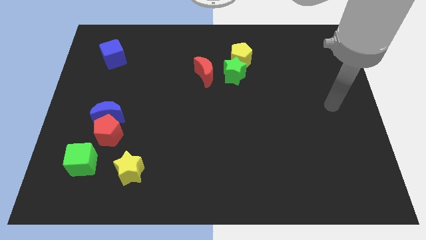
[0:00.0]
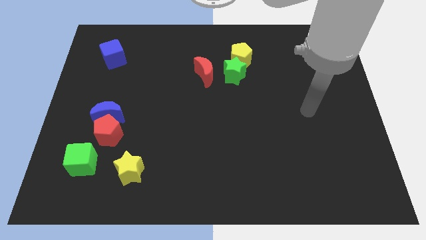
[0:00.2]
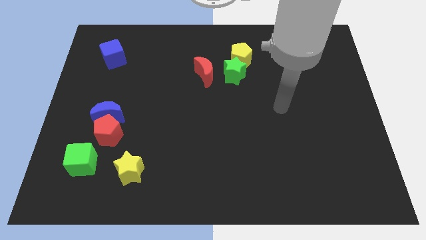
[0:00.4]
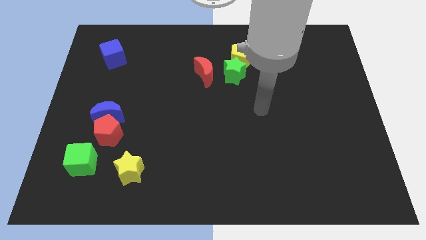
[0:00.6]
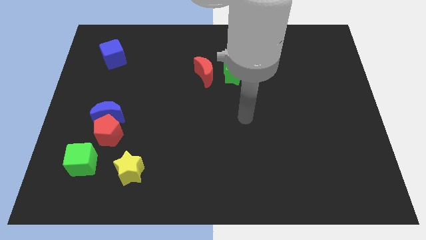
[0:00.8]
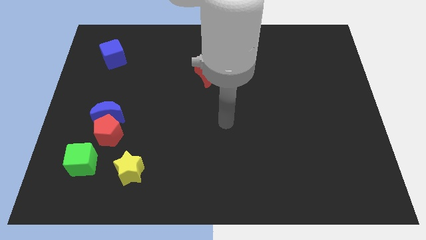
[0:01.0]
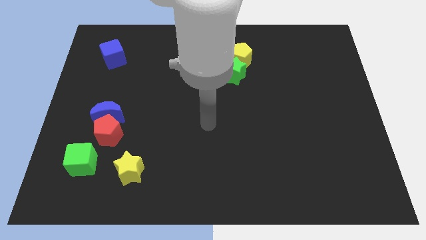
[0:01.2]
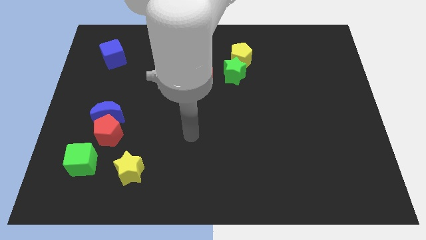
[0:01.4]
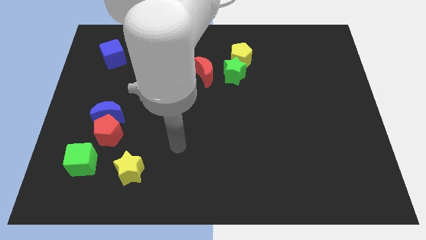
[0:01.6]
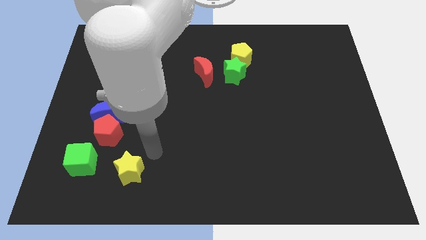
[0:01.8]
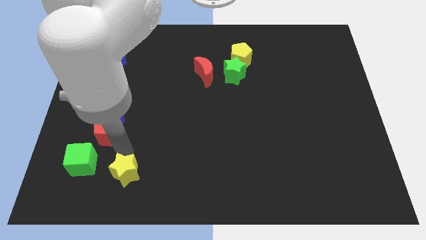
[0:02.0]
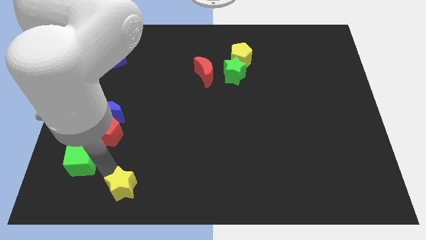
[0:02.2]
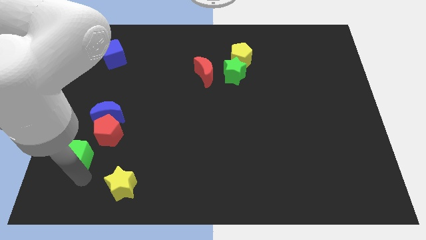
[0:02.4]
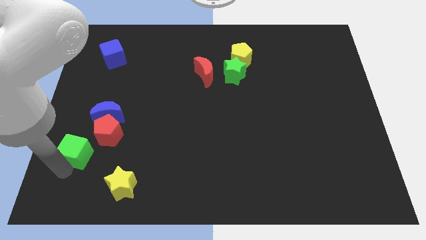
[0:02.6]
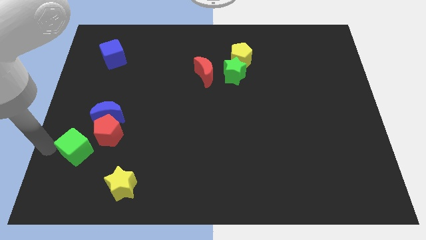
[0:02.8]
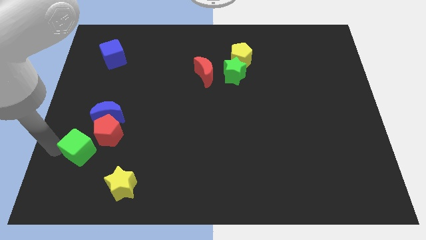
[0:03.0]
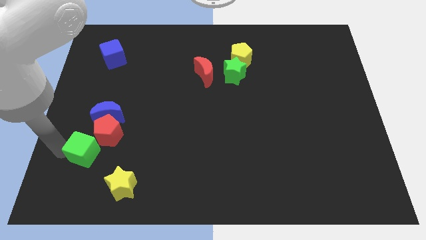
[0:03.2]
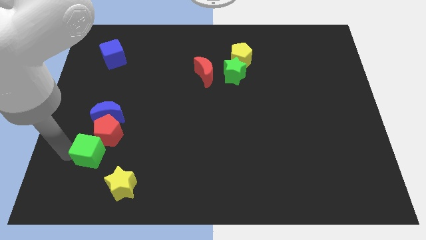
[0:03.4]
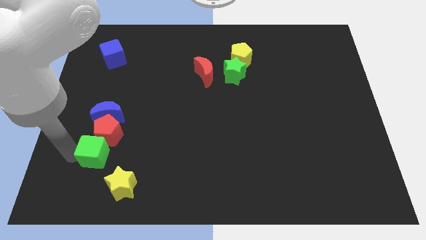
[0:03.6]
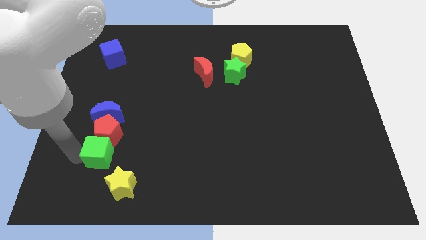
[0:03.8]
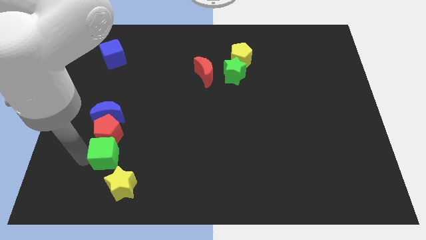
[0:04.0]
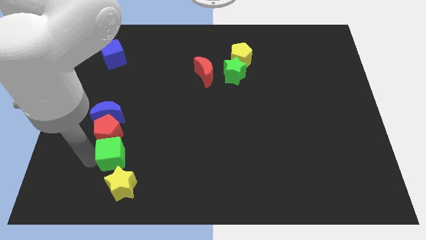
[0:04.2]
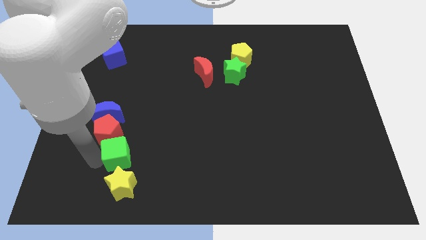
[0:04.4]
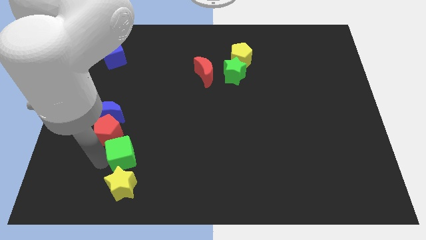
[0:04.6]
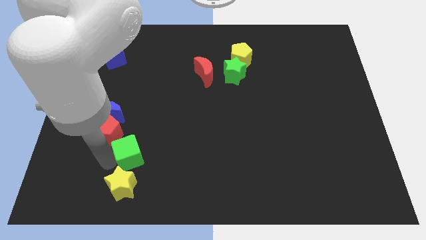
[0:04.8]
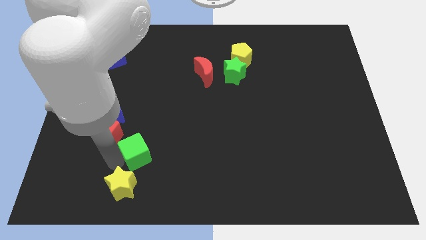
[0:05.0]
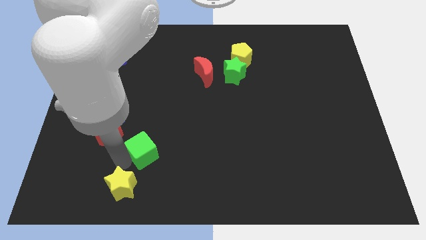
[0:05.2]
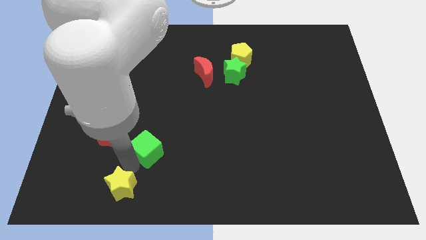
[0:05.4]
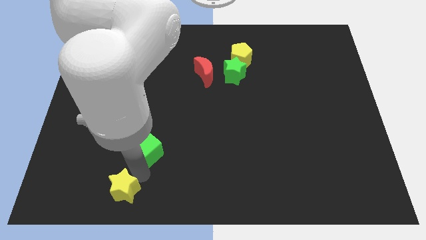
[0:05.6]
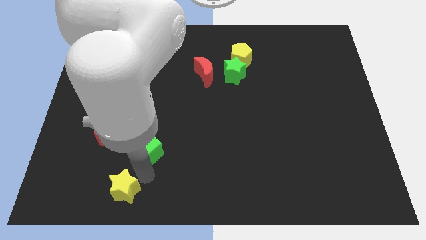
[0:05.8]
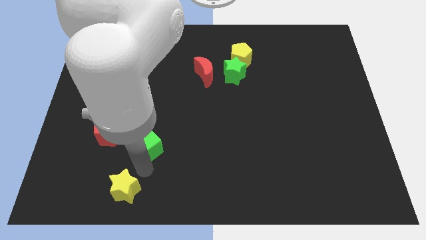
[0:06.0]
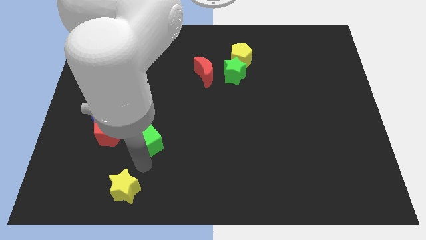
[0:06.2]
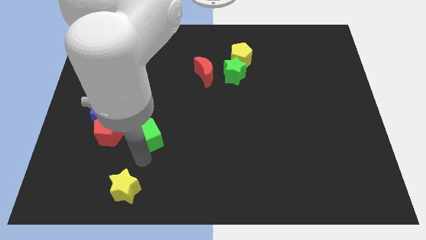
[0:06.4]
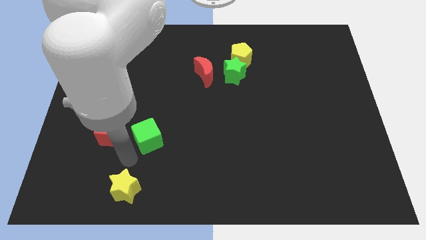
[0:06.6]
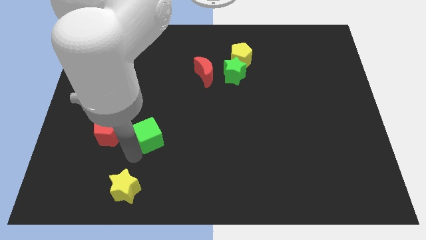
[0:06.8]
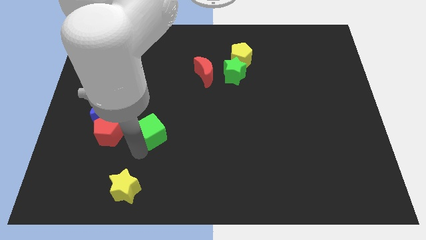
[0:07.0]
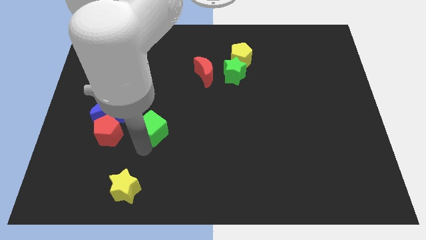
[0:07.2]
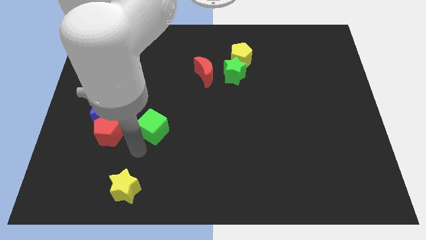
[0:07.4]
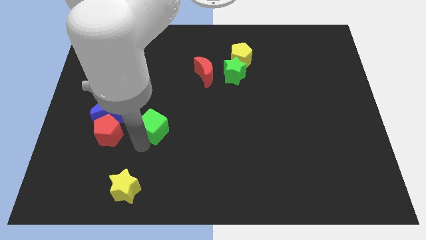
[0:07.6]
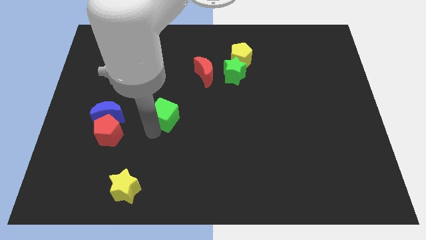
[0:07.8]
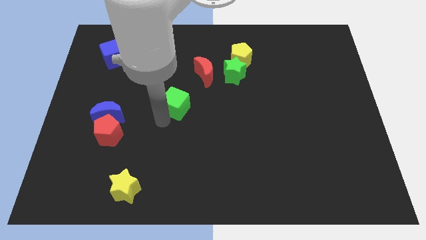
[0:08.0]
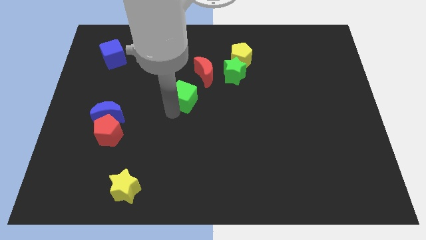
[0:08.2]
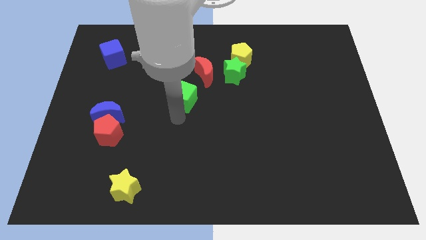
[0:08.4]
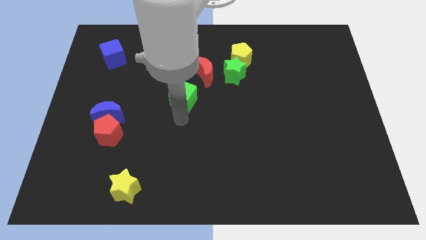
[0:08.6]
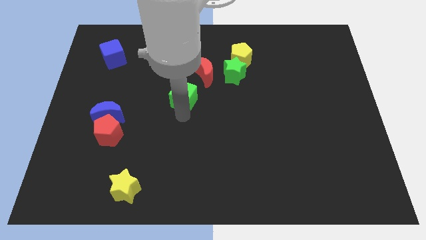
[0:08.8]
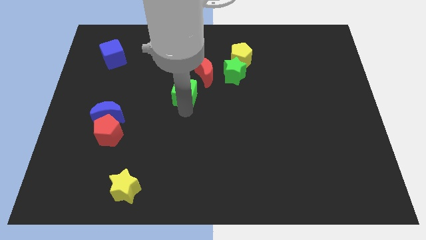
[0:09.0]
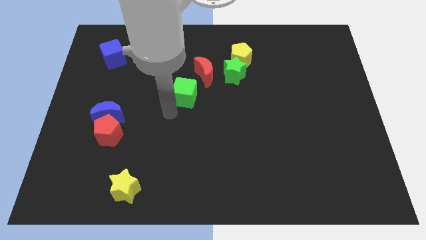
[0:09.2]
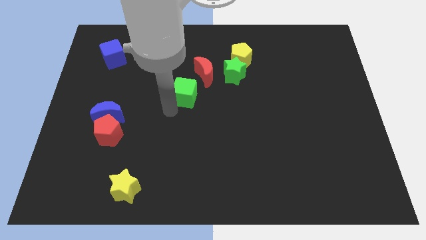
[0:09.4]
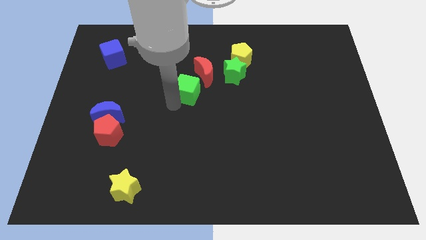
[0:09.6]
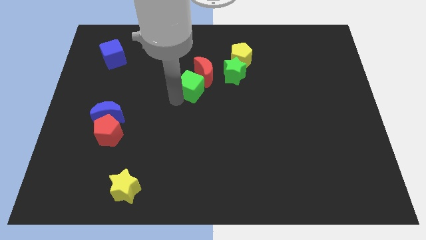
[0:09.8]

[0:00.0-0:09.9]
push the green cube to the red moon

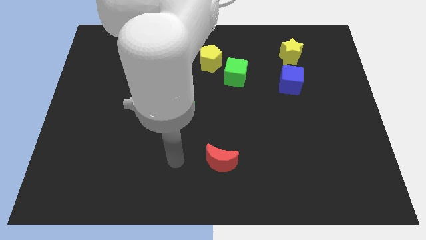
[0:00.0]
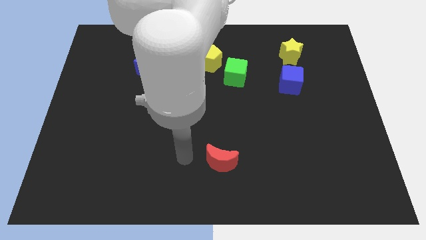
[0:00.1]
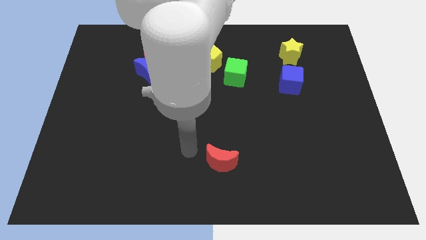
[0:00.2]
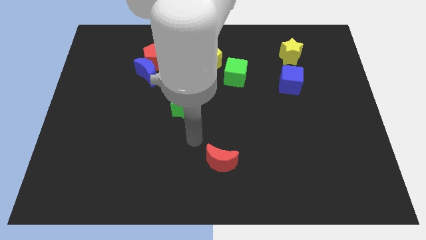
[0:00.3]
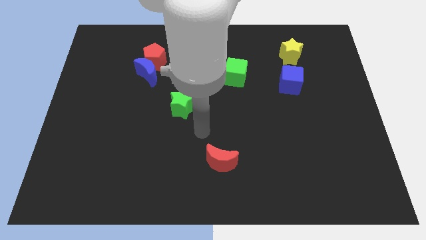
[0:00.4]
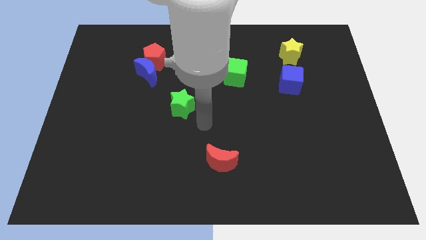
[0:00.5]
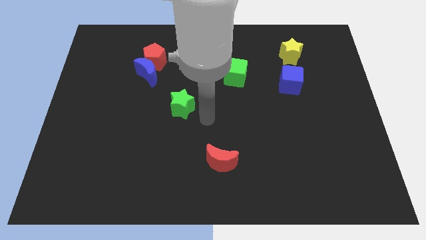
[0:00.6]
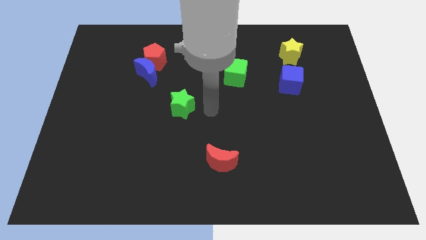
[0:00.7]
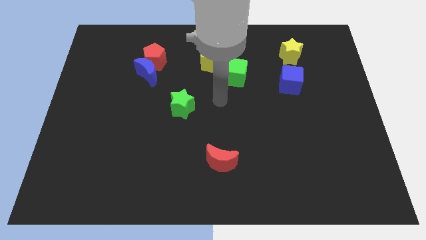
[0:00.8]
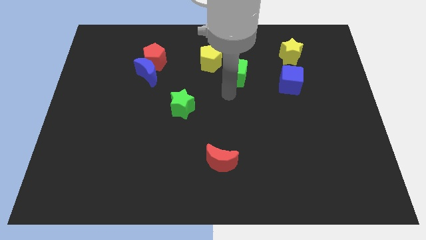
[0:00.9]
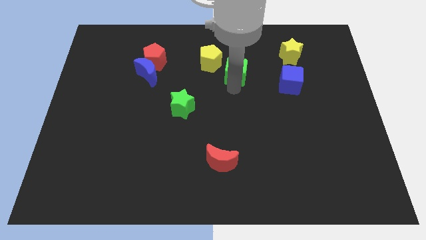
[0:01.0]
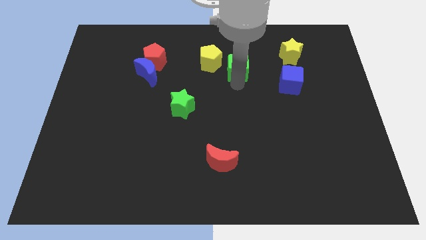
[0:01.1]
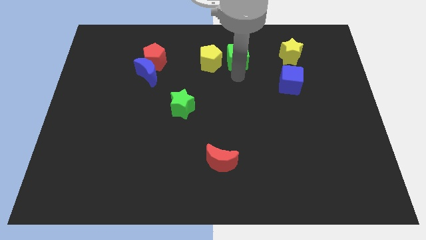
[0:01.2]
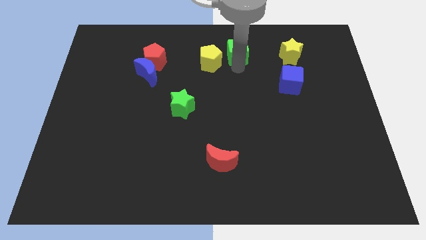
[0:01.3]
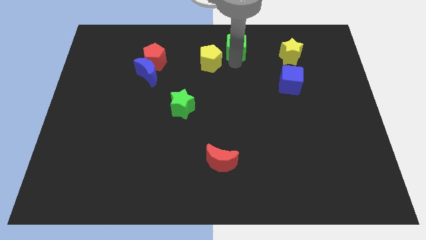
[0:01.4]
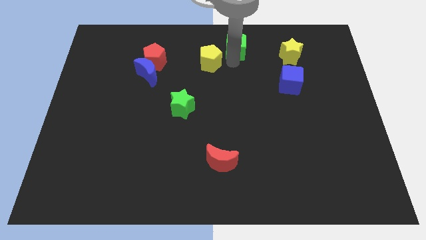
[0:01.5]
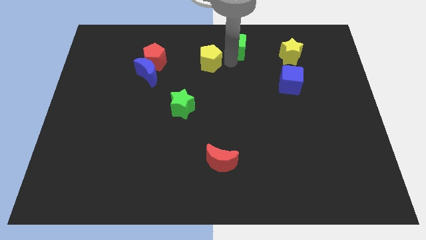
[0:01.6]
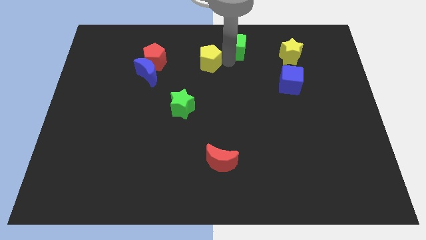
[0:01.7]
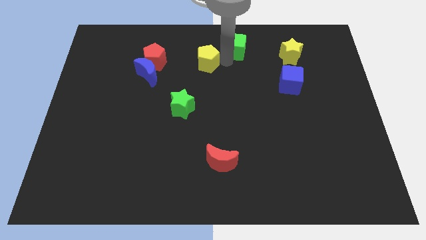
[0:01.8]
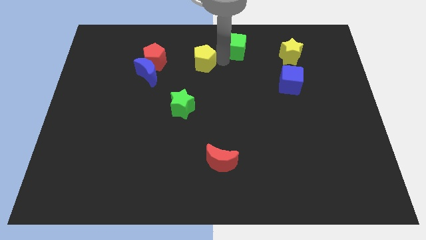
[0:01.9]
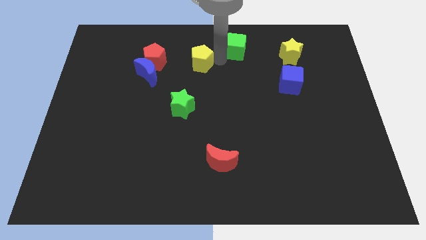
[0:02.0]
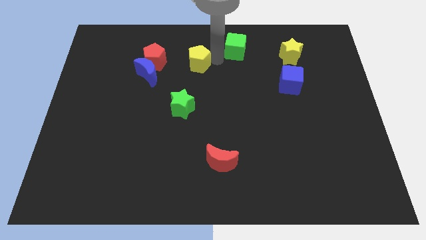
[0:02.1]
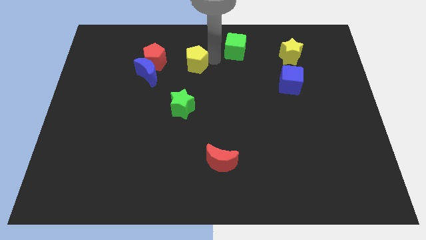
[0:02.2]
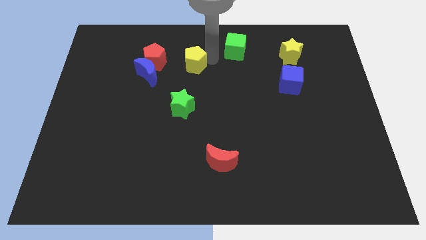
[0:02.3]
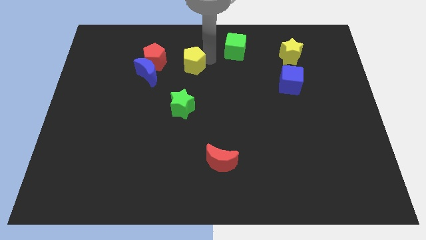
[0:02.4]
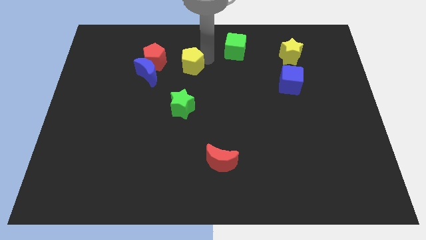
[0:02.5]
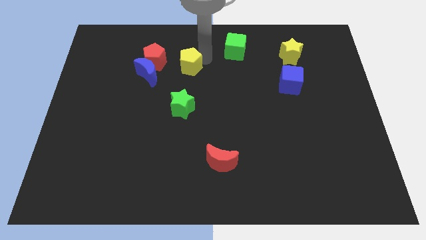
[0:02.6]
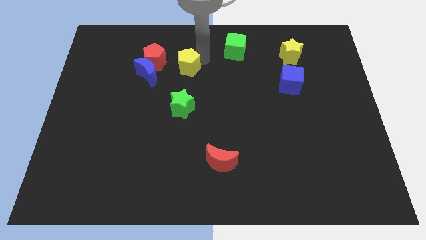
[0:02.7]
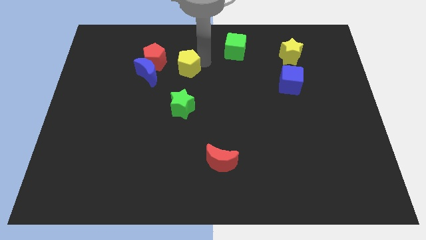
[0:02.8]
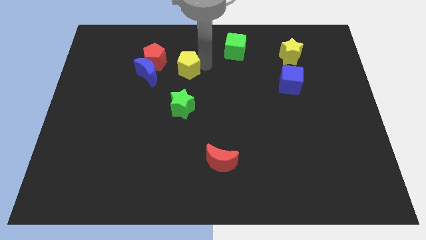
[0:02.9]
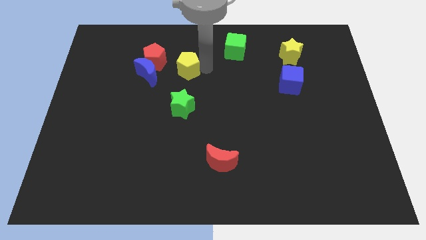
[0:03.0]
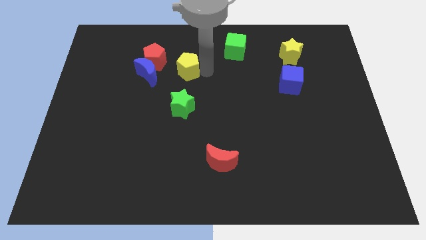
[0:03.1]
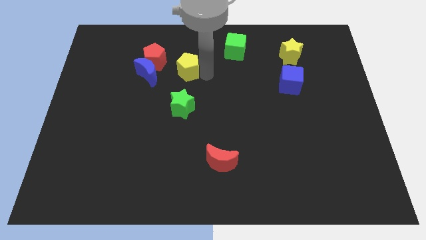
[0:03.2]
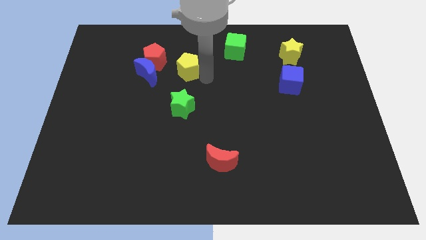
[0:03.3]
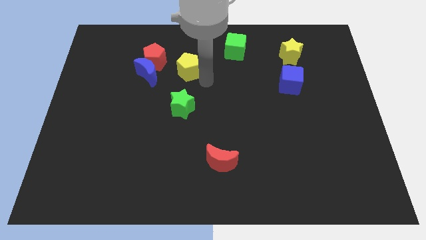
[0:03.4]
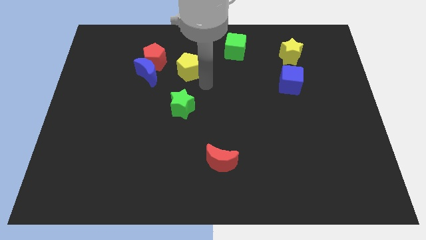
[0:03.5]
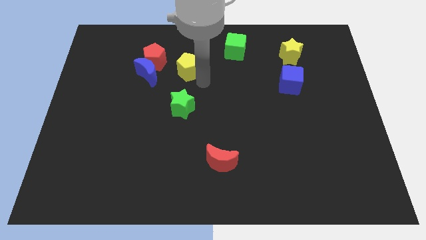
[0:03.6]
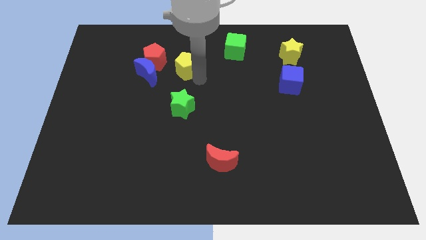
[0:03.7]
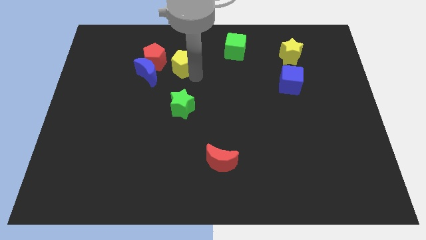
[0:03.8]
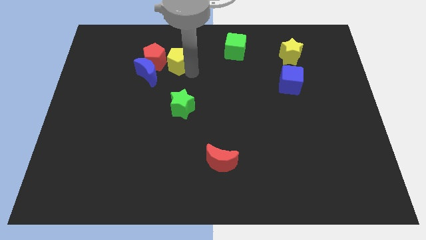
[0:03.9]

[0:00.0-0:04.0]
push the yellow pentagon next to the red pentagon
